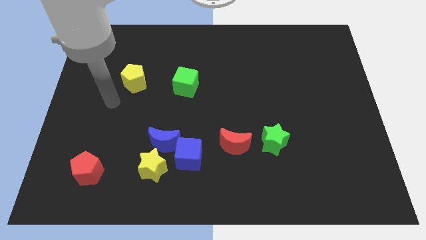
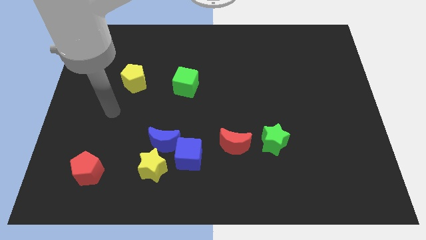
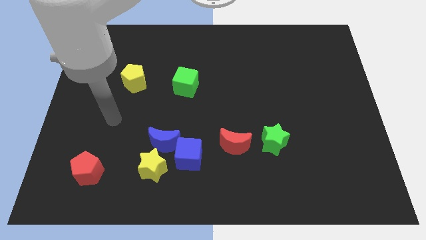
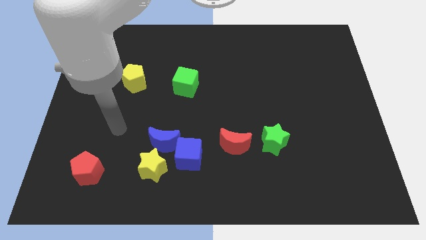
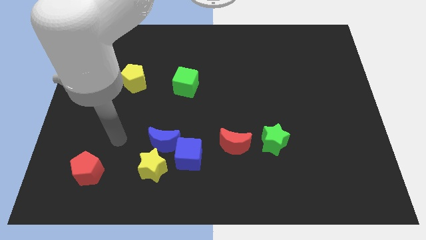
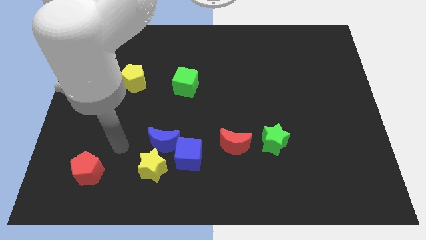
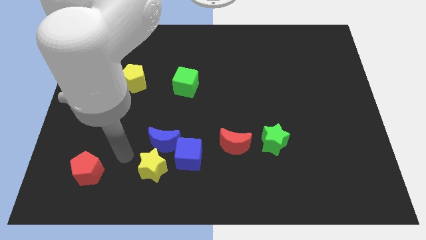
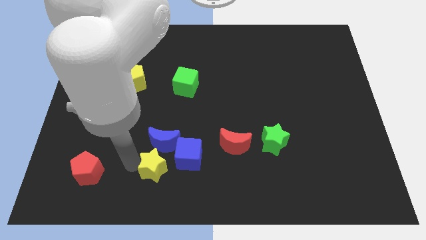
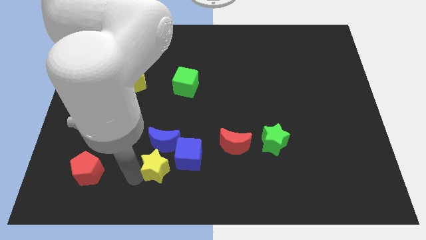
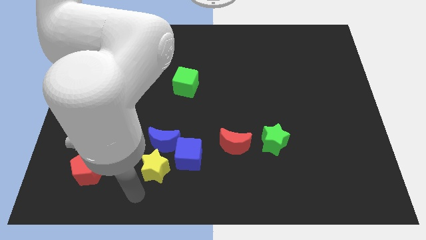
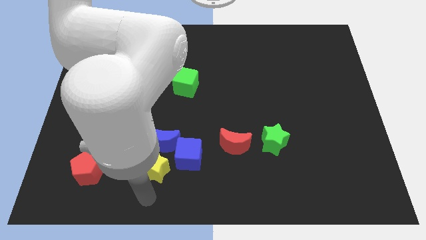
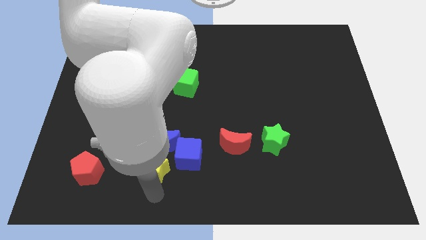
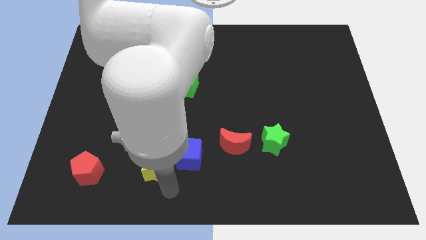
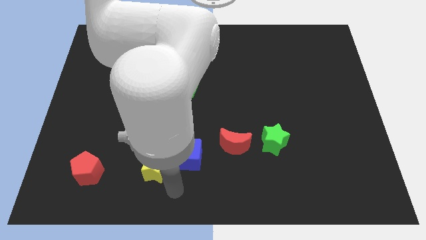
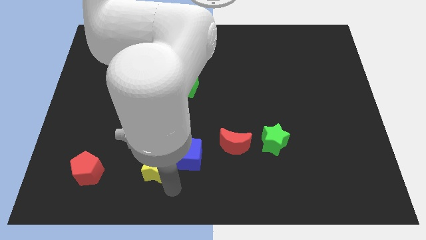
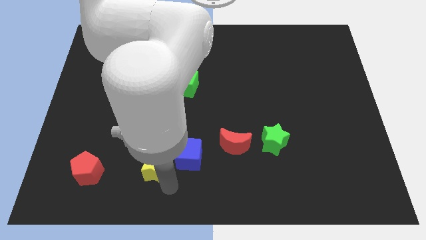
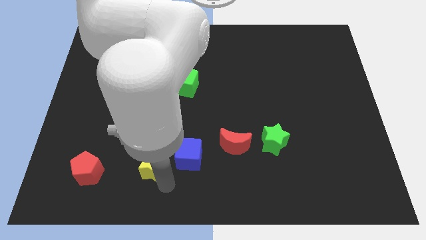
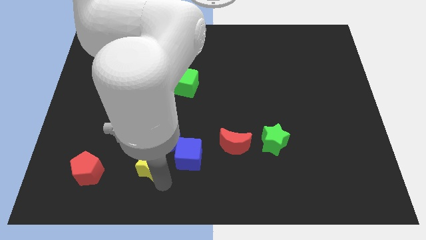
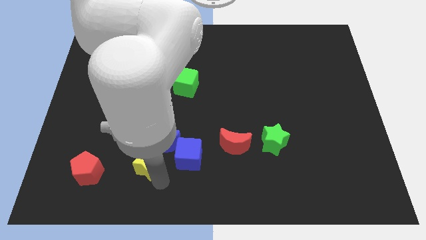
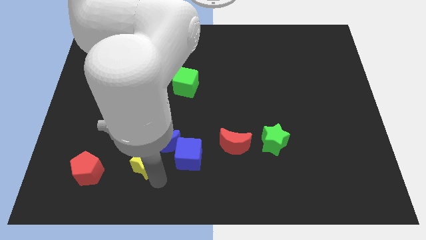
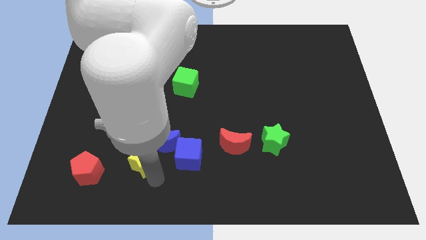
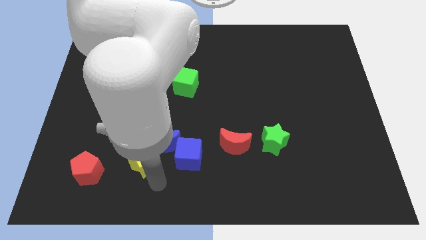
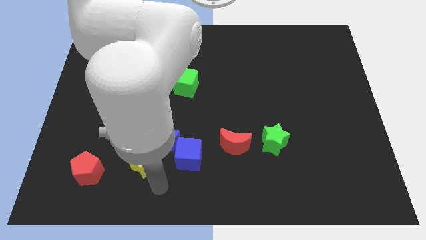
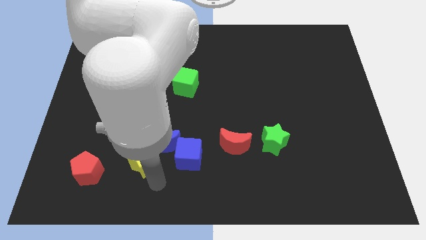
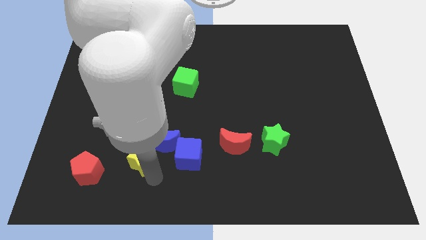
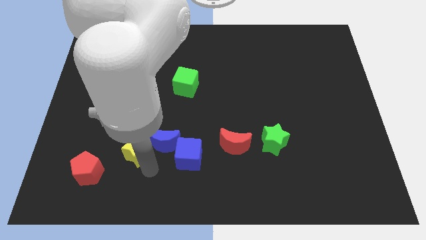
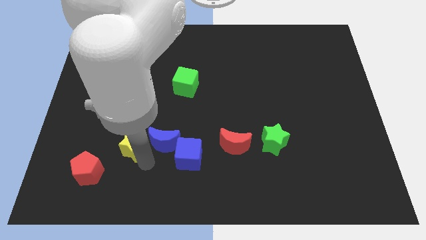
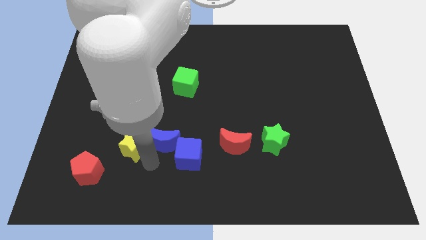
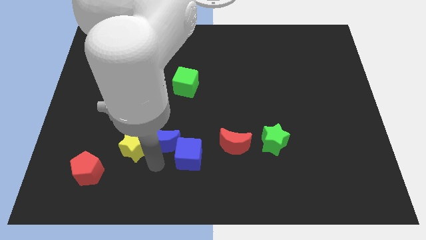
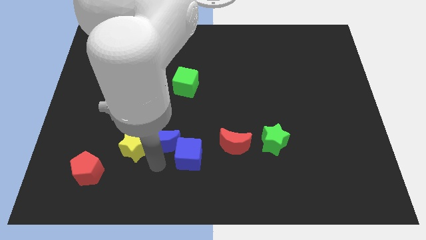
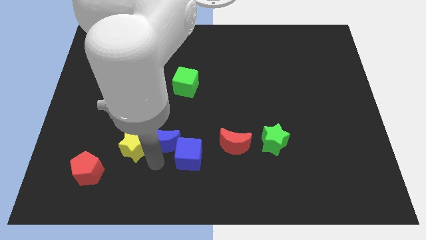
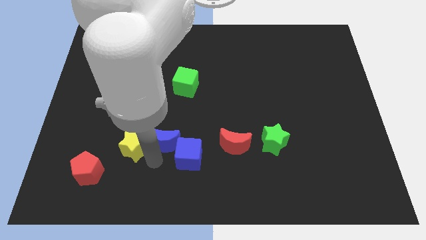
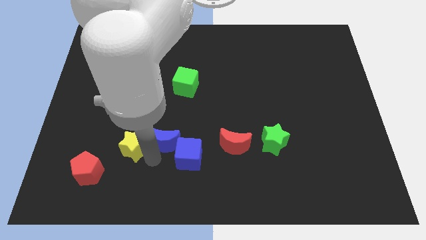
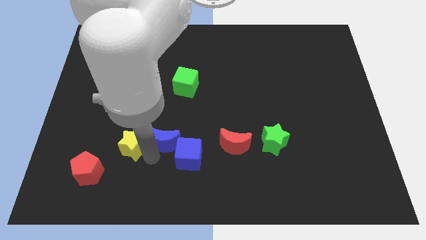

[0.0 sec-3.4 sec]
slightly push the yellow star upwards and to the left

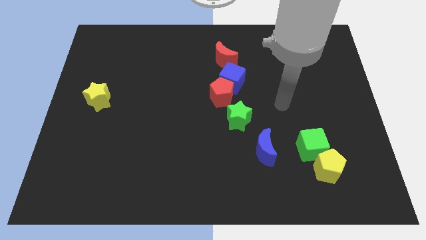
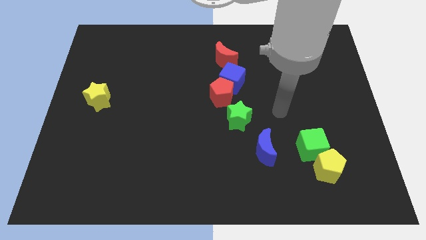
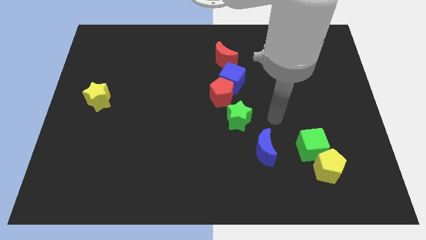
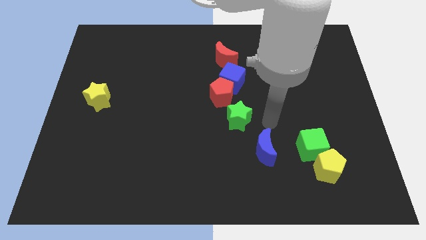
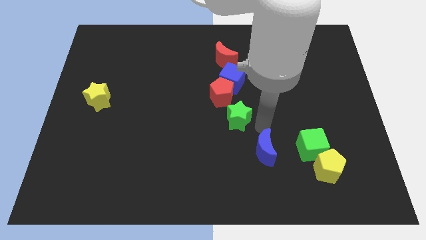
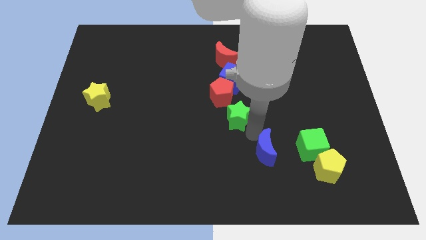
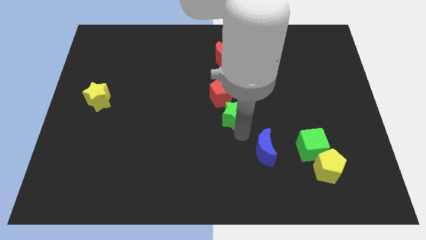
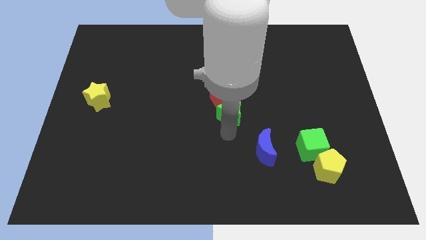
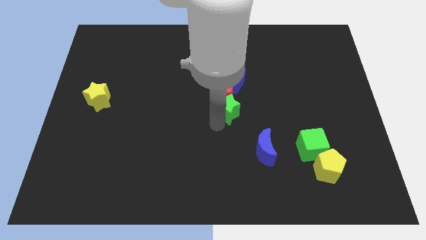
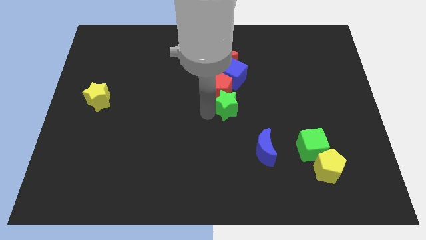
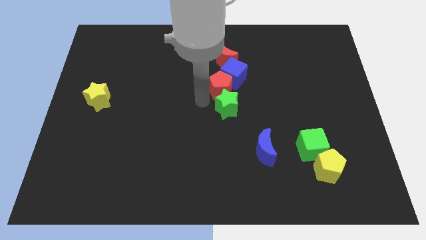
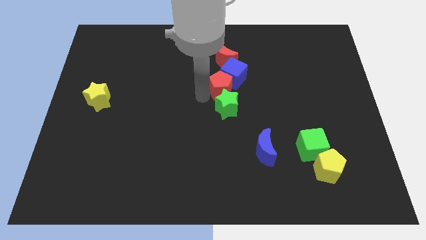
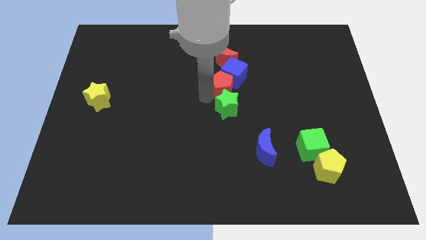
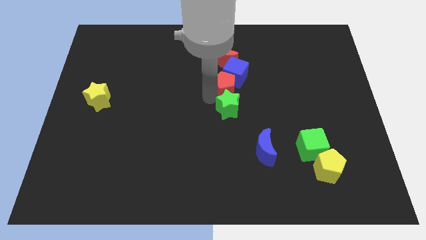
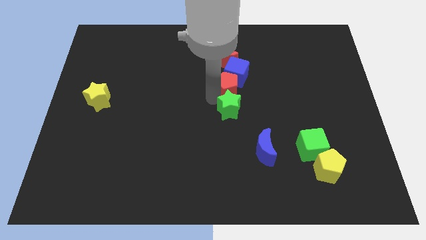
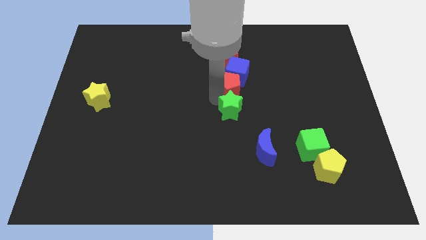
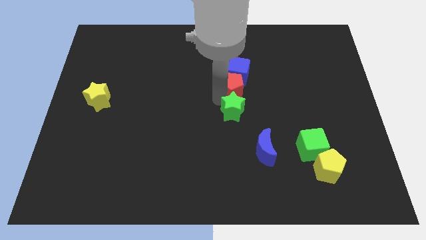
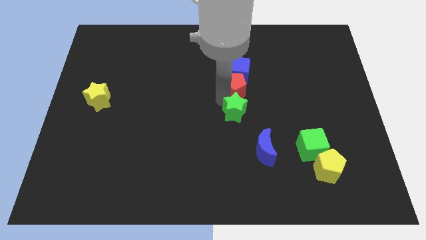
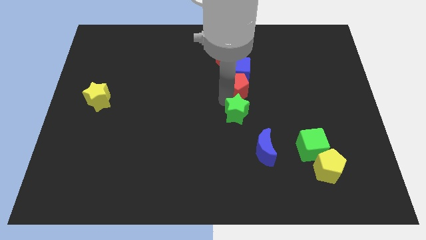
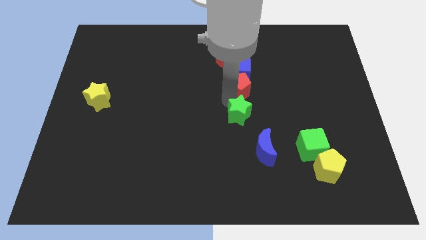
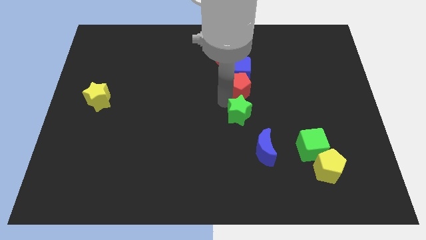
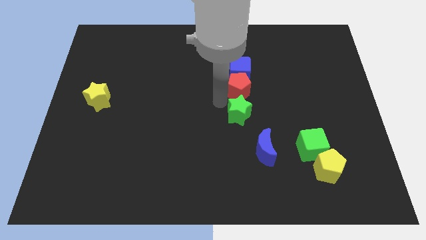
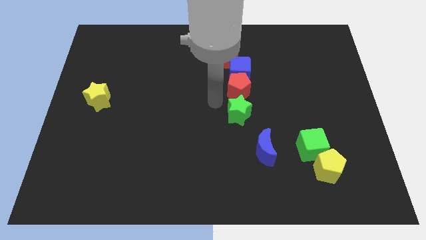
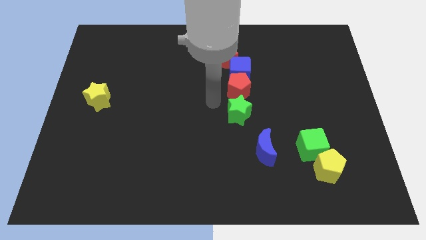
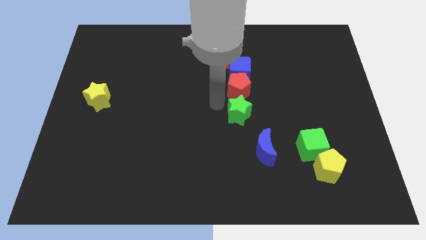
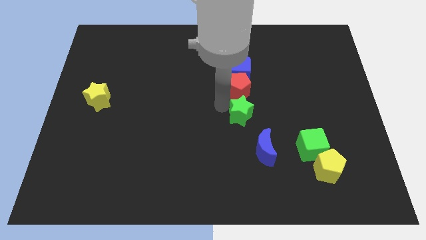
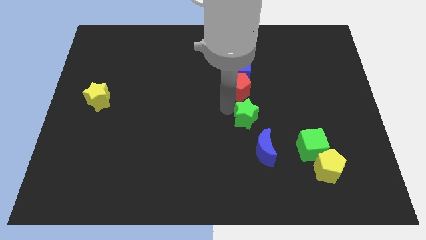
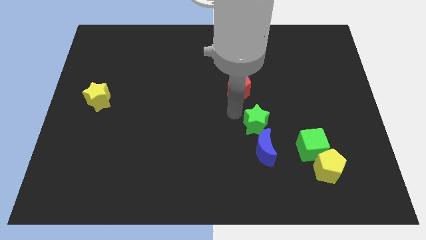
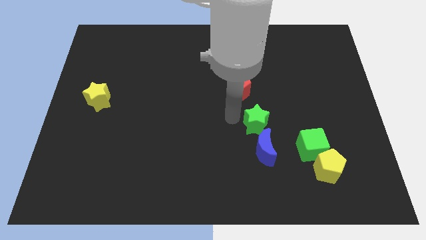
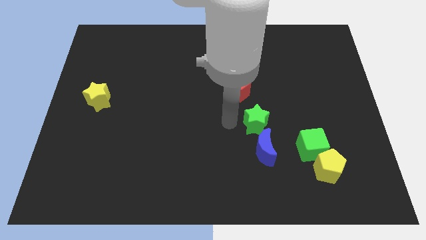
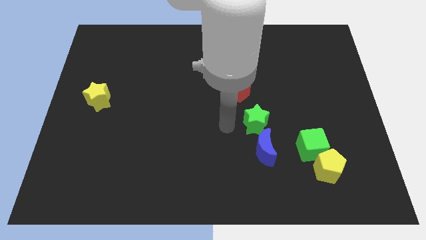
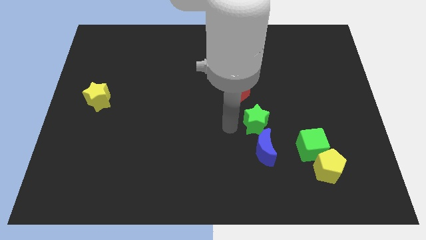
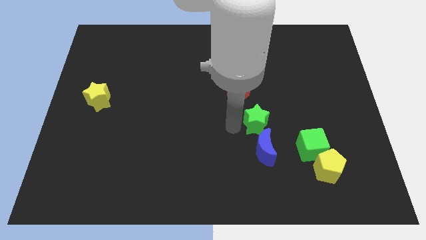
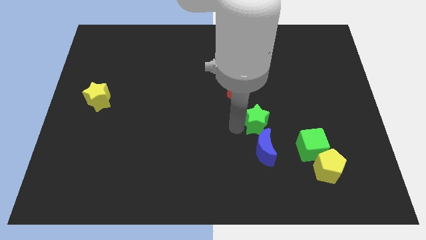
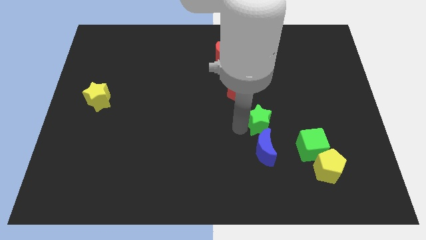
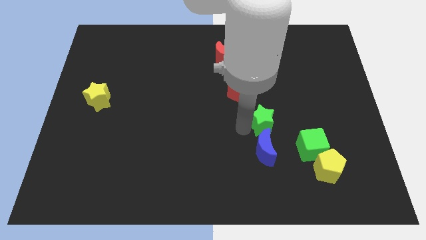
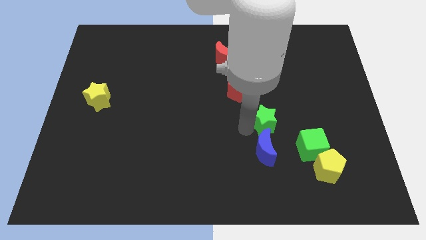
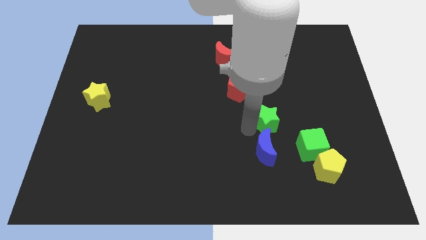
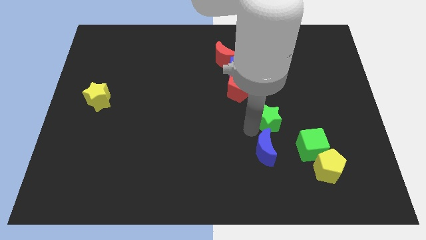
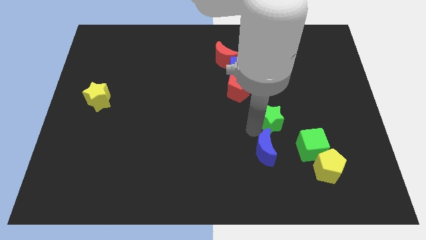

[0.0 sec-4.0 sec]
slide the green star somewhat to the right

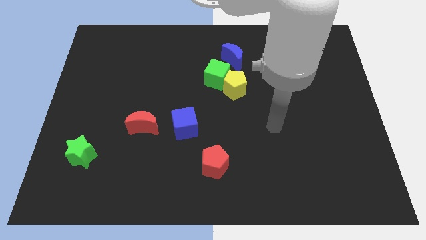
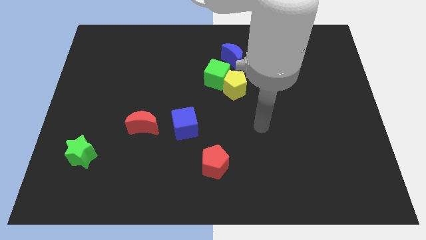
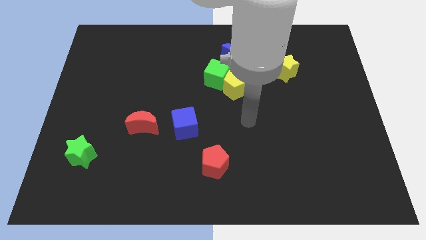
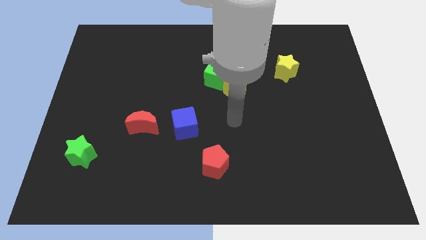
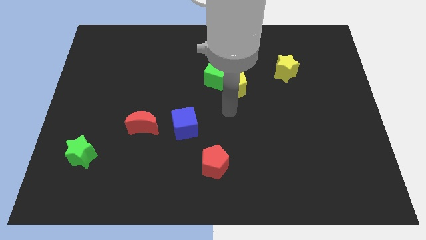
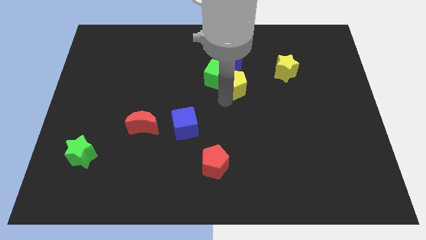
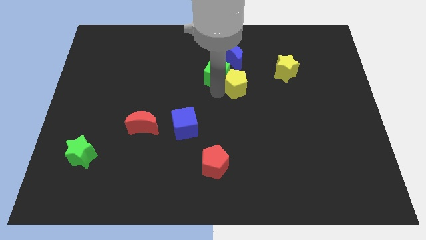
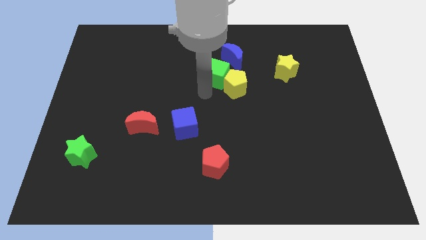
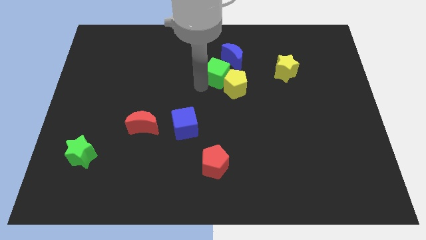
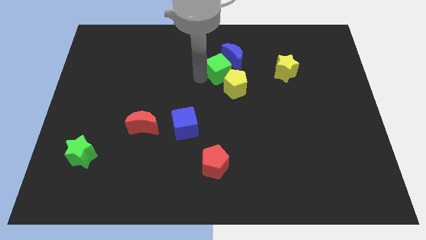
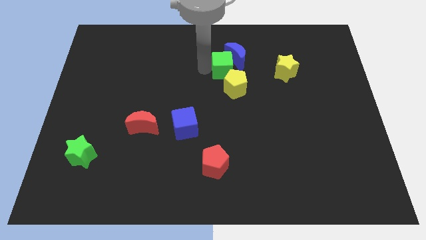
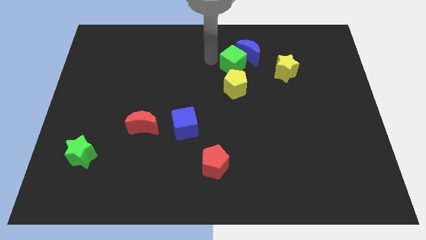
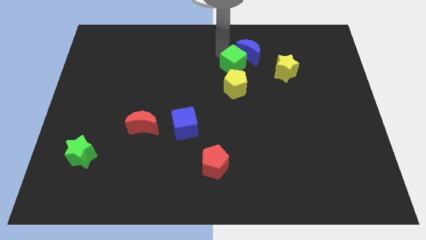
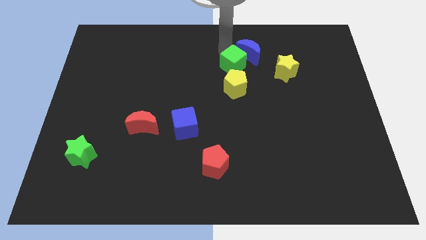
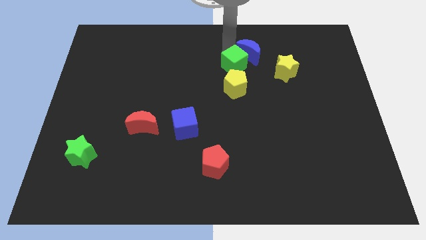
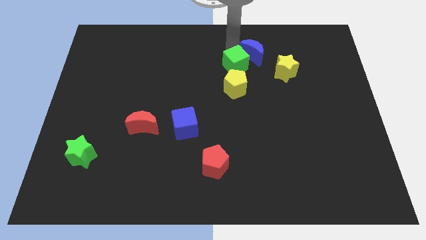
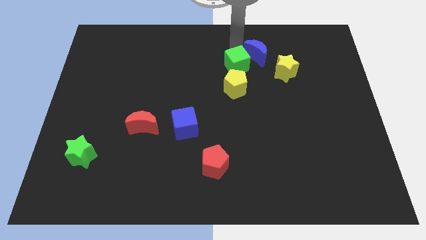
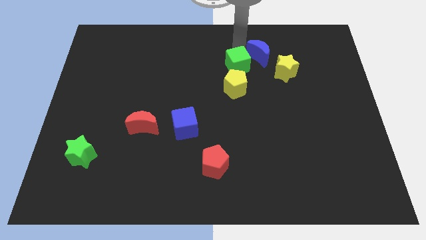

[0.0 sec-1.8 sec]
slide the blue moon a bit to the right
